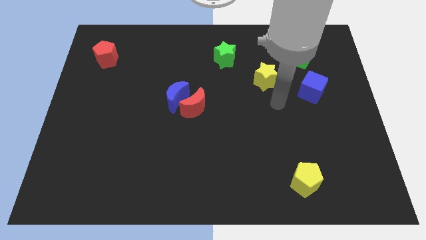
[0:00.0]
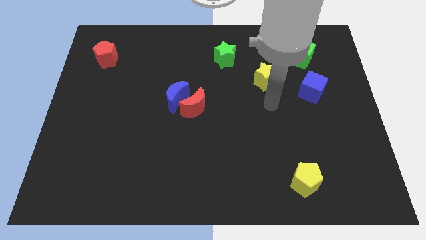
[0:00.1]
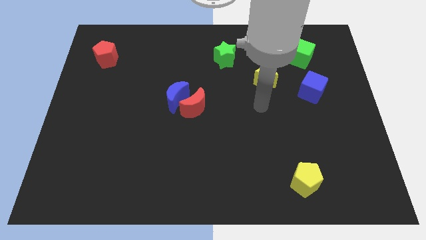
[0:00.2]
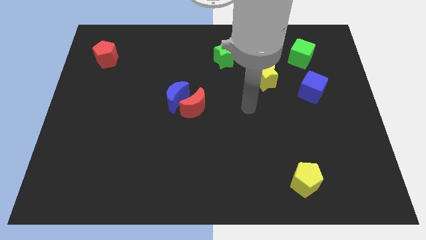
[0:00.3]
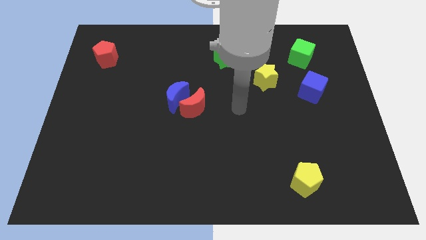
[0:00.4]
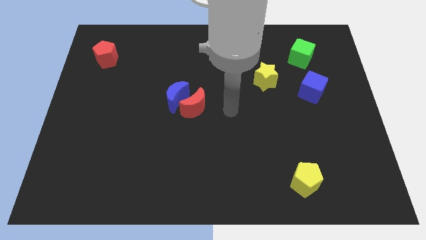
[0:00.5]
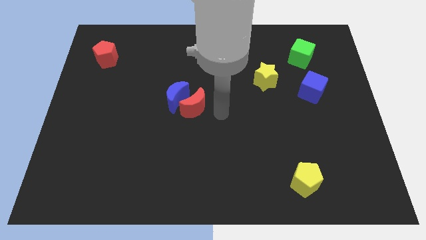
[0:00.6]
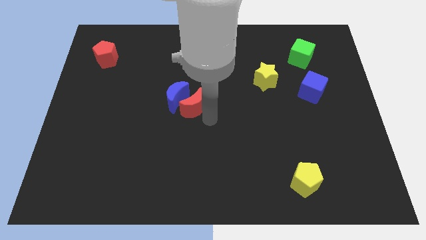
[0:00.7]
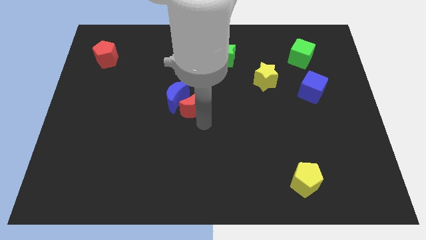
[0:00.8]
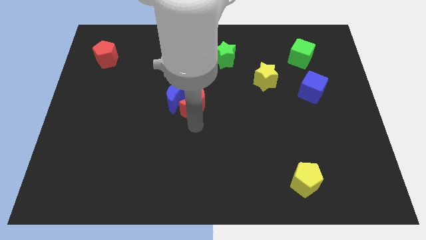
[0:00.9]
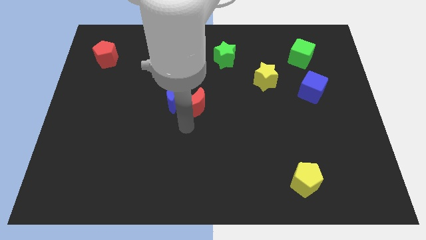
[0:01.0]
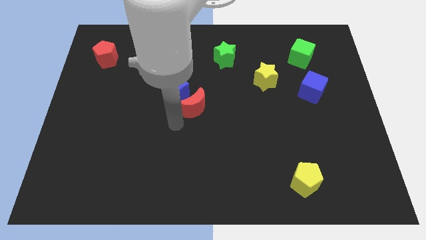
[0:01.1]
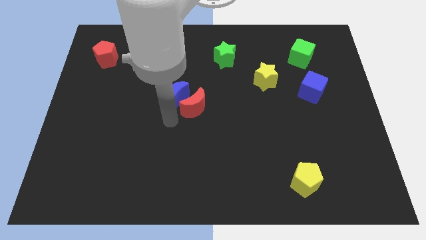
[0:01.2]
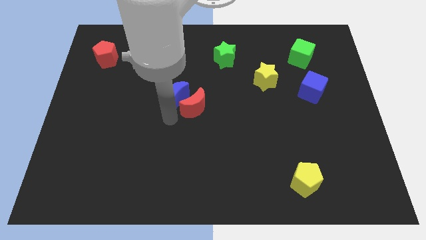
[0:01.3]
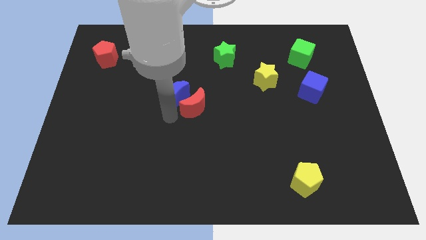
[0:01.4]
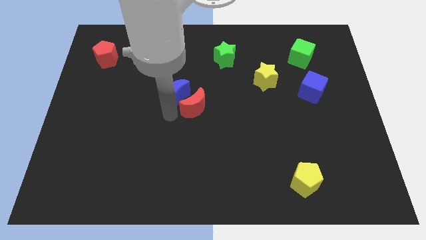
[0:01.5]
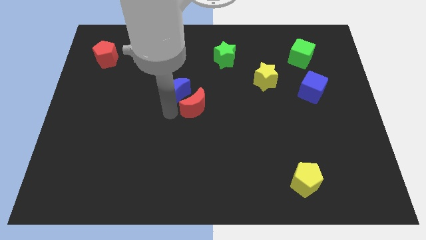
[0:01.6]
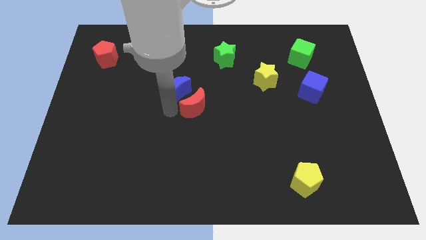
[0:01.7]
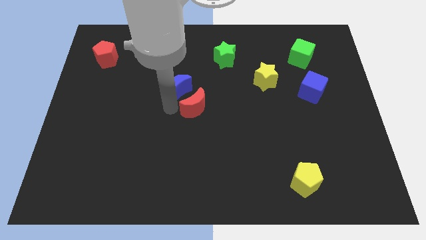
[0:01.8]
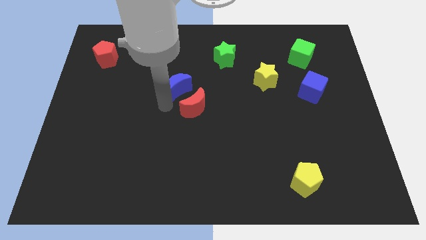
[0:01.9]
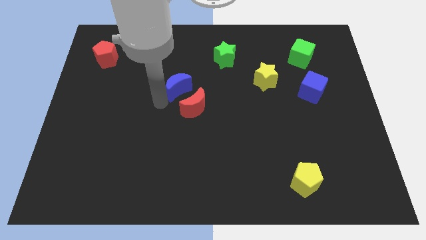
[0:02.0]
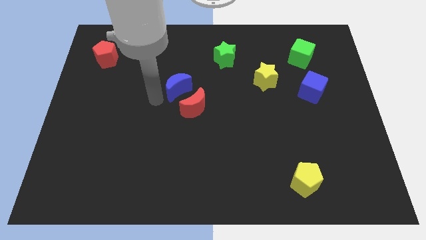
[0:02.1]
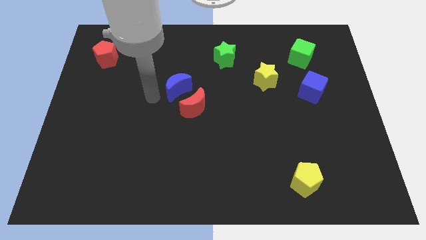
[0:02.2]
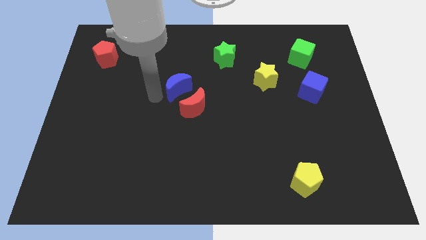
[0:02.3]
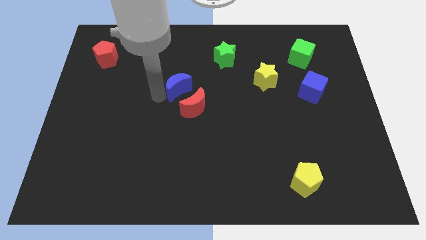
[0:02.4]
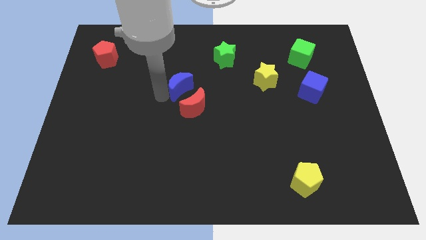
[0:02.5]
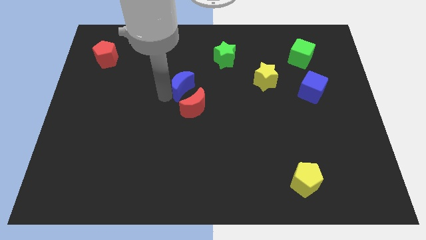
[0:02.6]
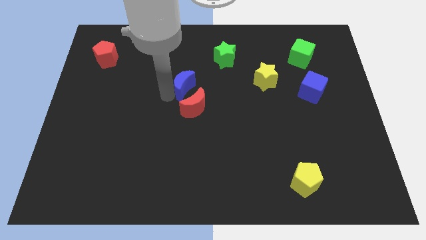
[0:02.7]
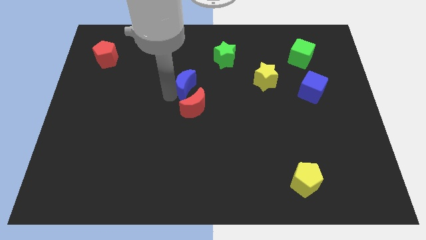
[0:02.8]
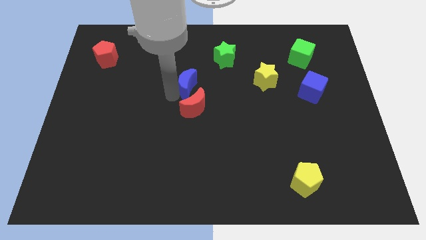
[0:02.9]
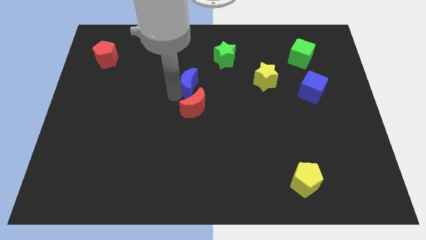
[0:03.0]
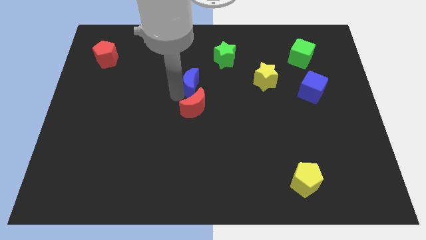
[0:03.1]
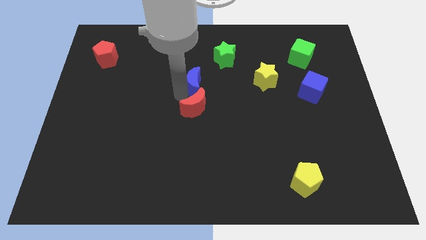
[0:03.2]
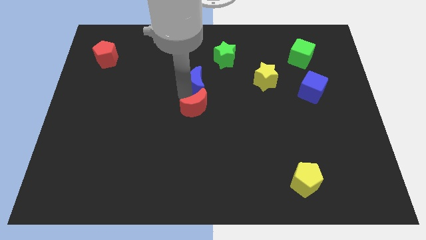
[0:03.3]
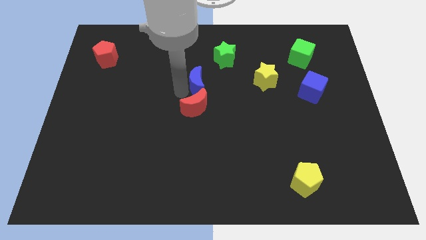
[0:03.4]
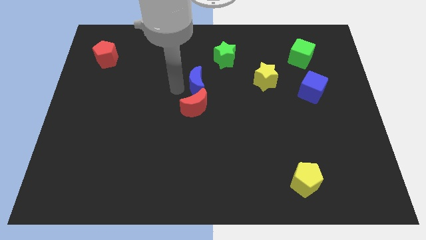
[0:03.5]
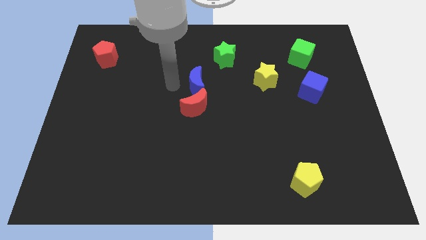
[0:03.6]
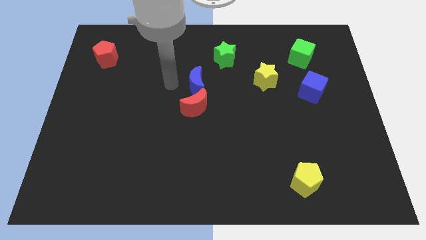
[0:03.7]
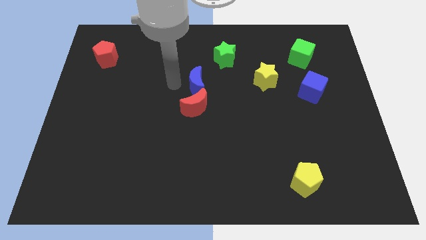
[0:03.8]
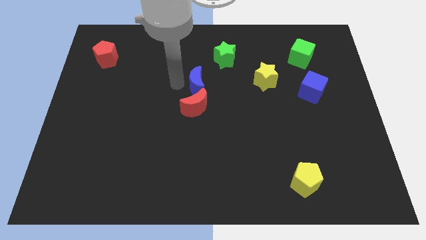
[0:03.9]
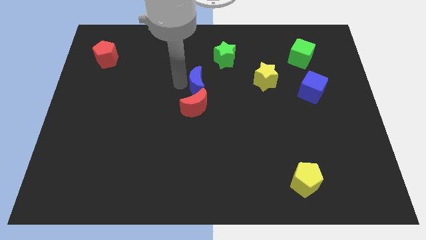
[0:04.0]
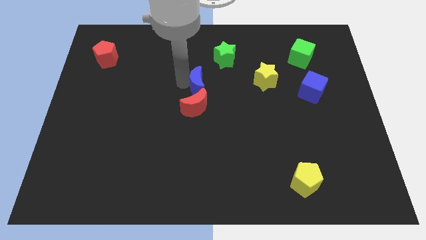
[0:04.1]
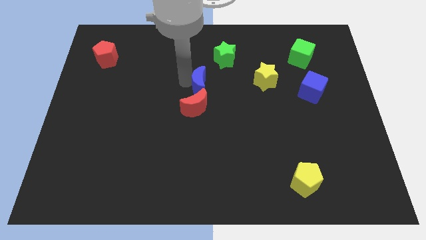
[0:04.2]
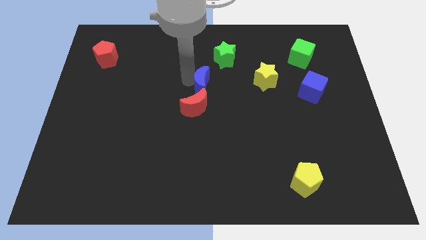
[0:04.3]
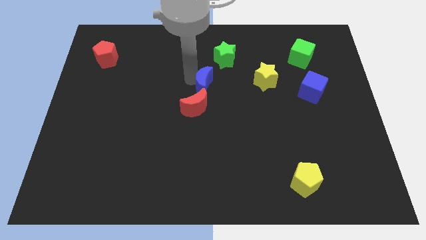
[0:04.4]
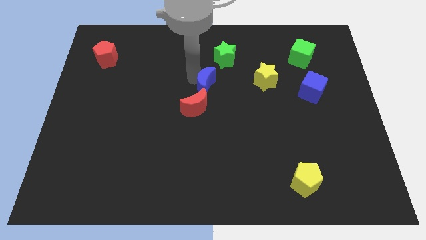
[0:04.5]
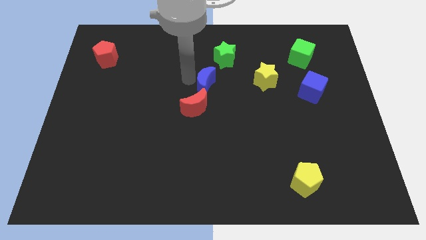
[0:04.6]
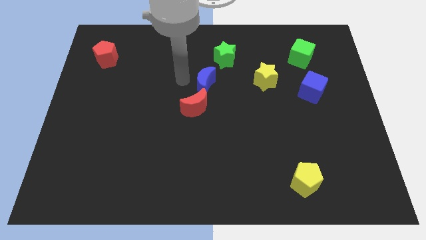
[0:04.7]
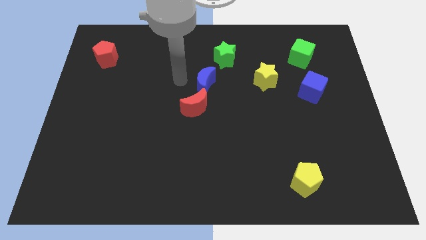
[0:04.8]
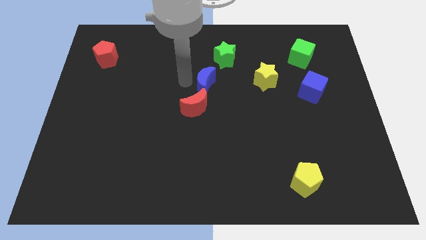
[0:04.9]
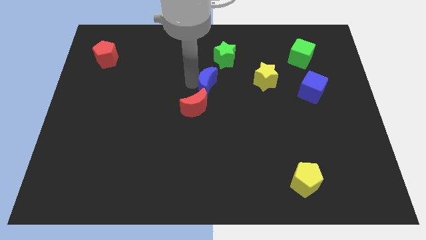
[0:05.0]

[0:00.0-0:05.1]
push the blue moon below the green star

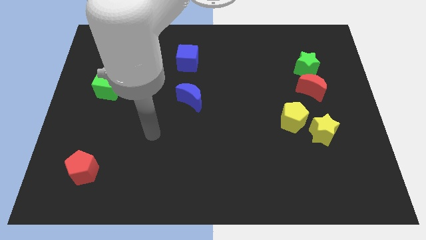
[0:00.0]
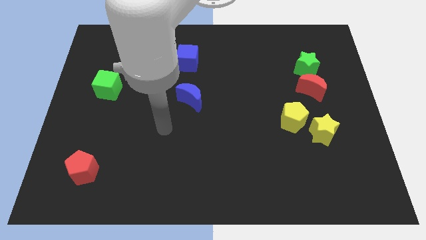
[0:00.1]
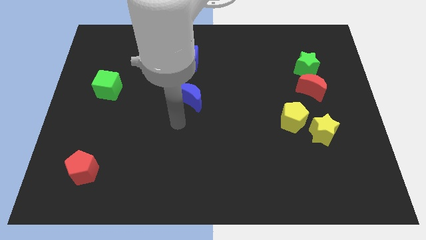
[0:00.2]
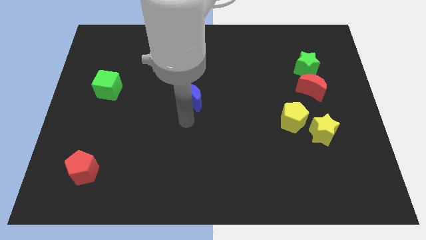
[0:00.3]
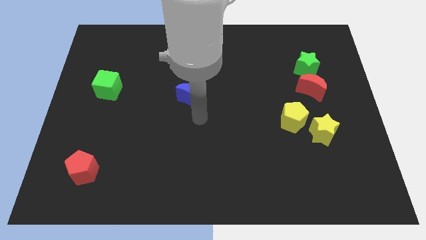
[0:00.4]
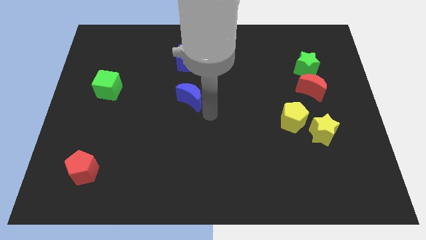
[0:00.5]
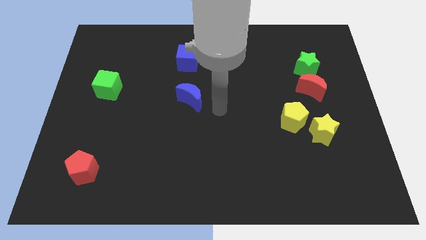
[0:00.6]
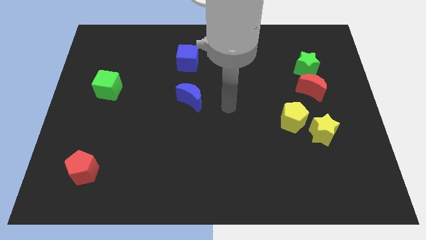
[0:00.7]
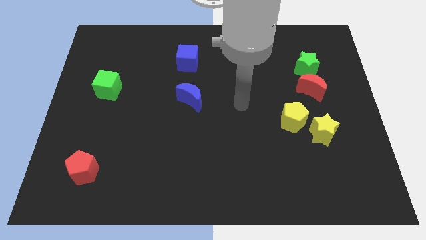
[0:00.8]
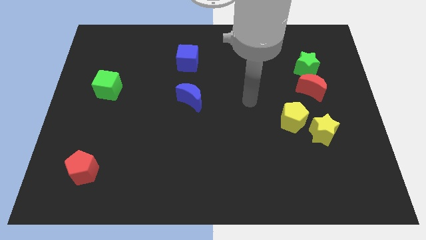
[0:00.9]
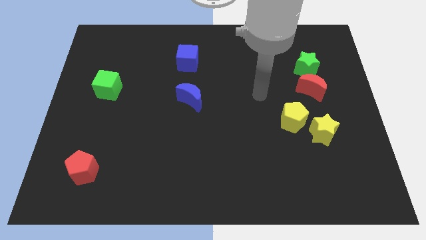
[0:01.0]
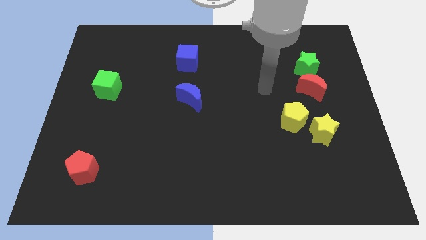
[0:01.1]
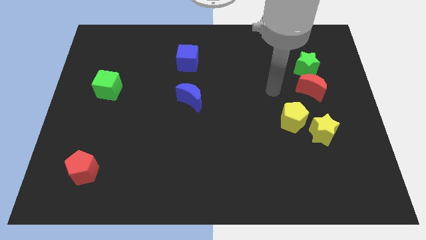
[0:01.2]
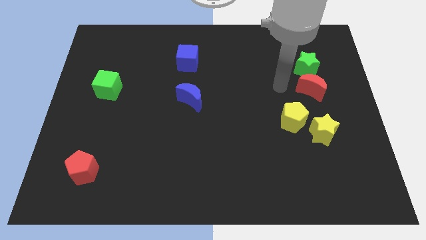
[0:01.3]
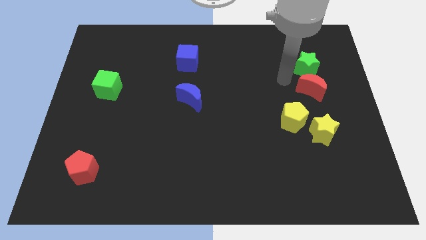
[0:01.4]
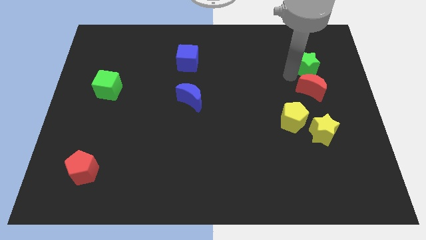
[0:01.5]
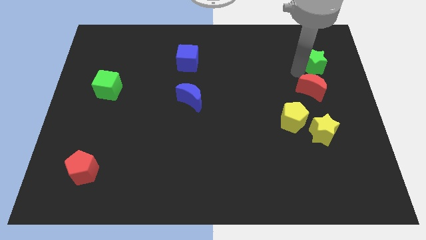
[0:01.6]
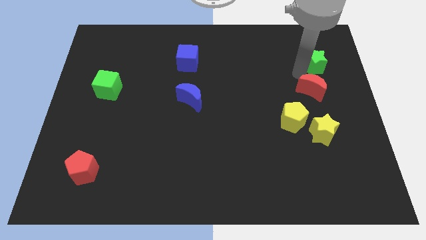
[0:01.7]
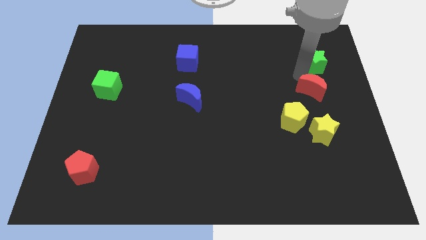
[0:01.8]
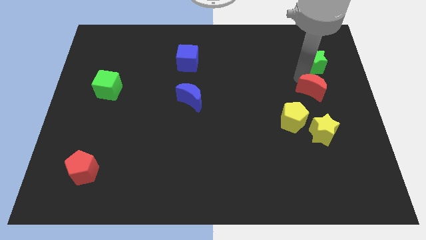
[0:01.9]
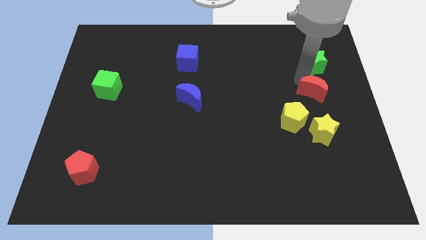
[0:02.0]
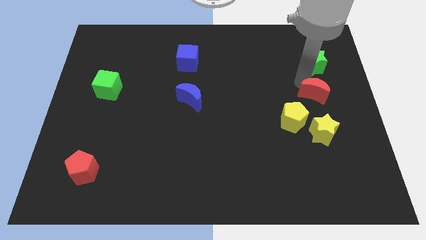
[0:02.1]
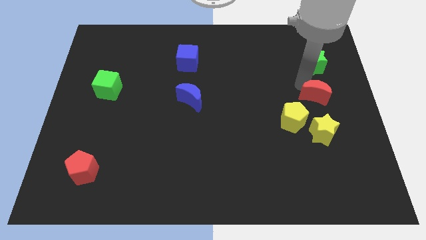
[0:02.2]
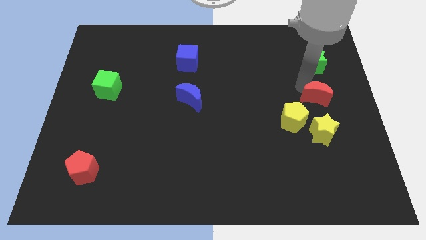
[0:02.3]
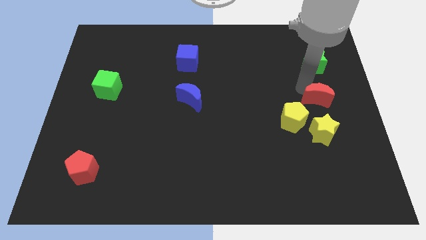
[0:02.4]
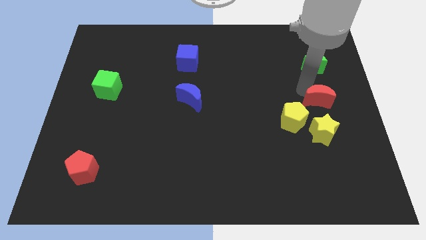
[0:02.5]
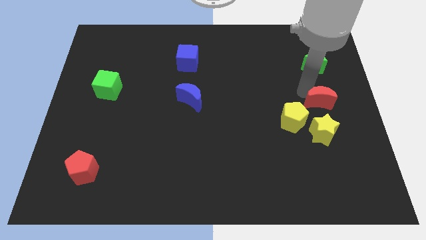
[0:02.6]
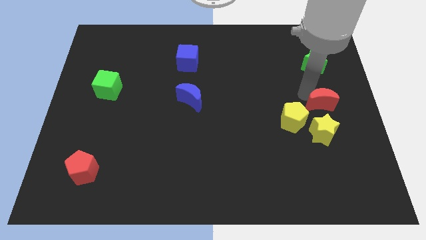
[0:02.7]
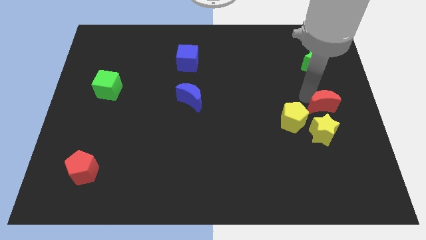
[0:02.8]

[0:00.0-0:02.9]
move the red moon to the right side of the yellow pentagon
